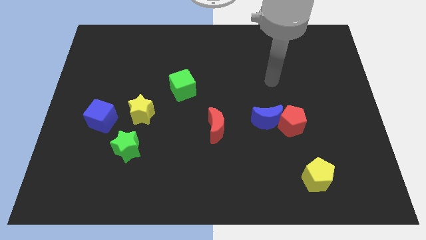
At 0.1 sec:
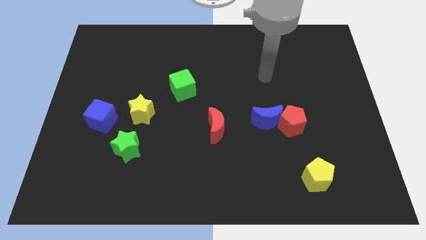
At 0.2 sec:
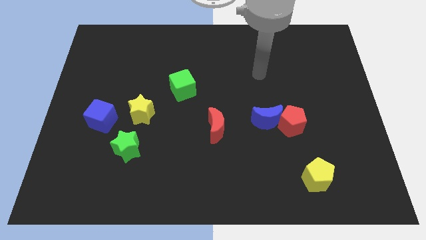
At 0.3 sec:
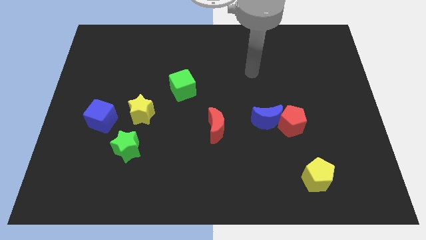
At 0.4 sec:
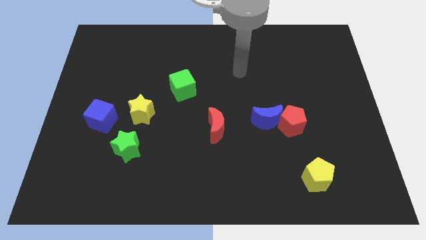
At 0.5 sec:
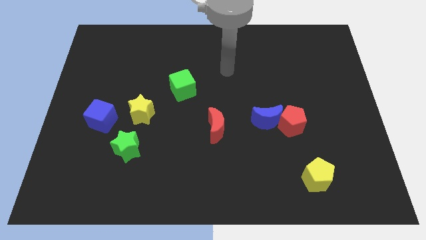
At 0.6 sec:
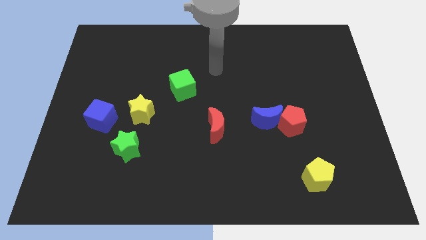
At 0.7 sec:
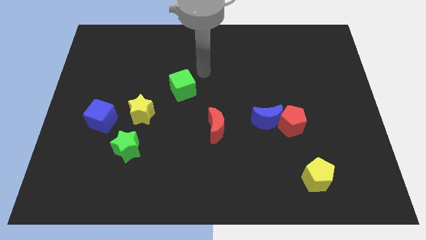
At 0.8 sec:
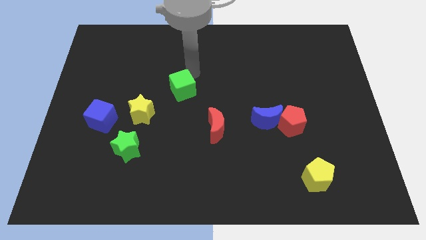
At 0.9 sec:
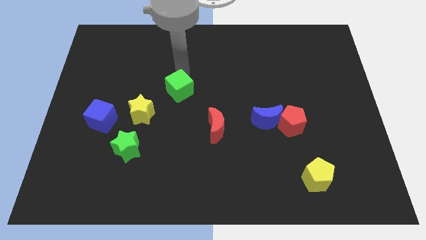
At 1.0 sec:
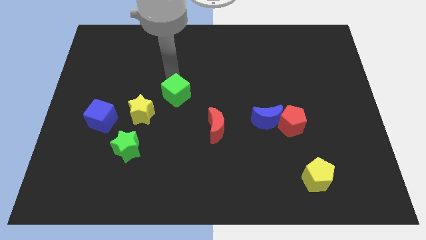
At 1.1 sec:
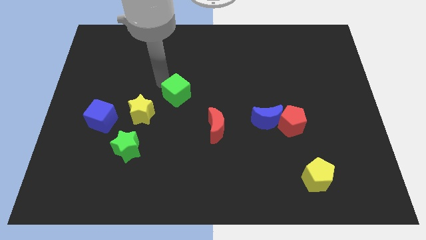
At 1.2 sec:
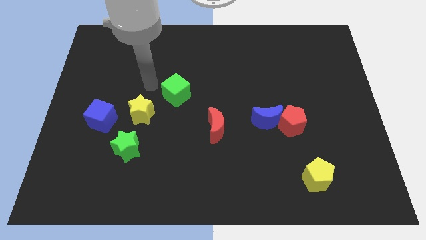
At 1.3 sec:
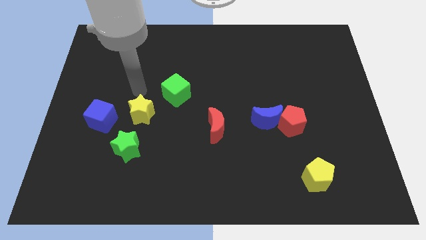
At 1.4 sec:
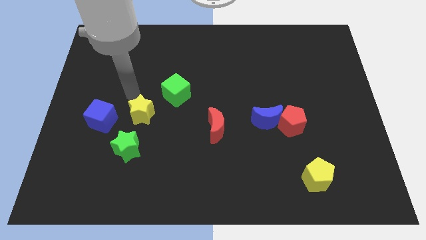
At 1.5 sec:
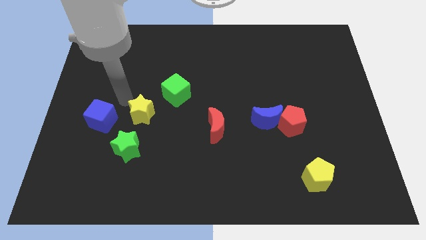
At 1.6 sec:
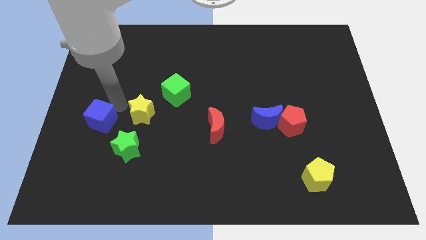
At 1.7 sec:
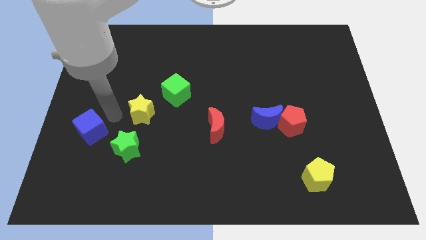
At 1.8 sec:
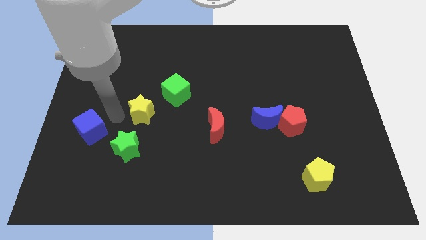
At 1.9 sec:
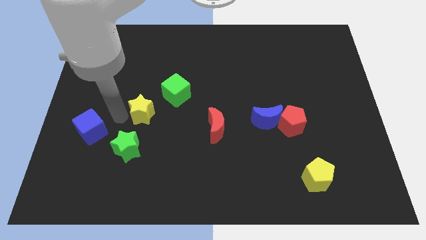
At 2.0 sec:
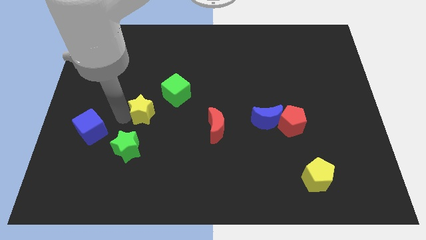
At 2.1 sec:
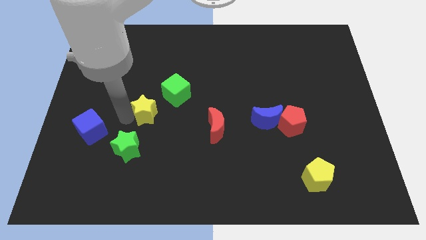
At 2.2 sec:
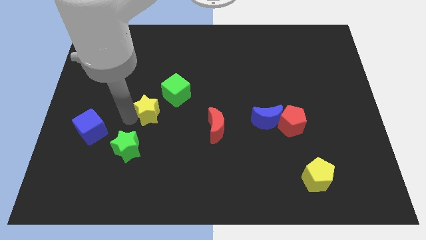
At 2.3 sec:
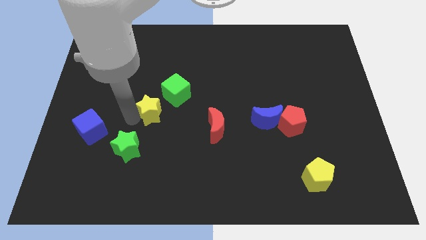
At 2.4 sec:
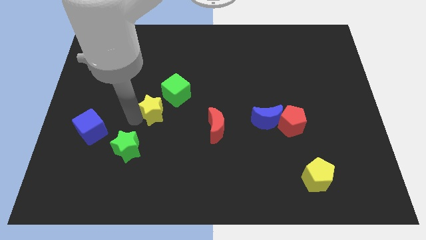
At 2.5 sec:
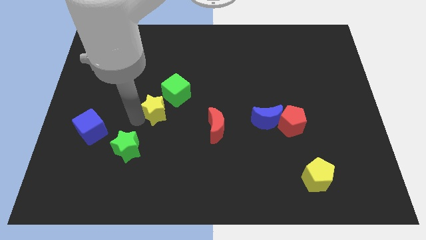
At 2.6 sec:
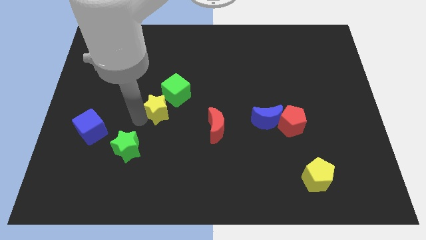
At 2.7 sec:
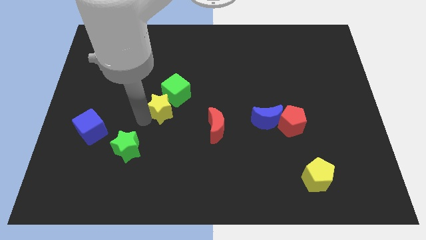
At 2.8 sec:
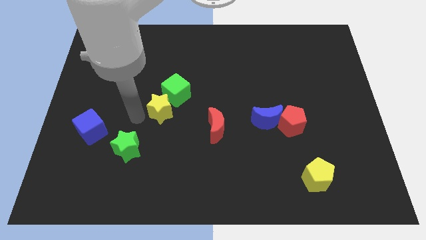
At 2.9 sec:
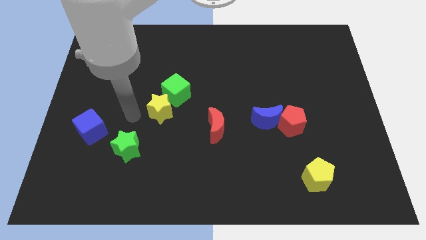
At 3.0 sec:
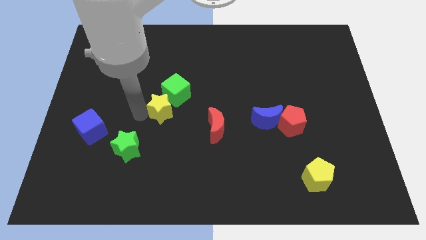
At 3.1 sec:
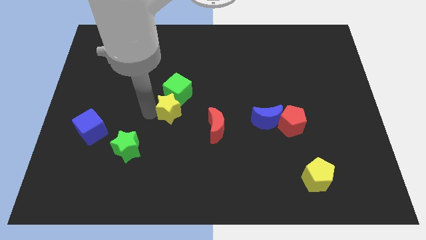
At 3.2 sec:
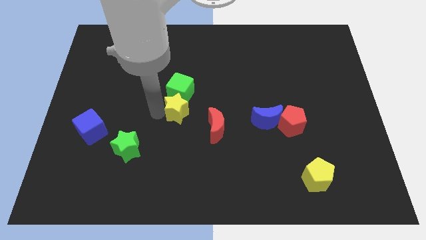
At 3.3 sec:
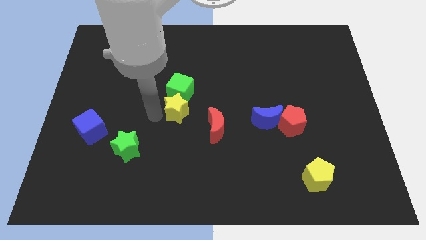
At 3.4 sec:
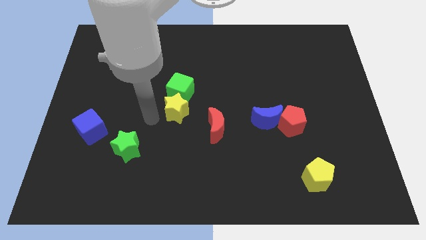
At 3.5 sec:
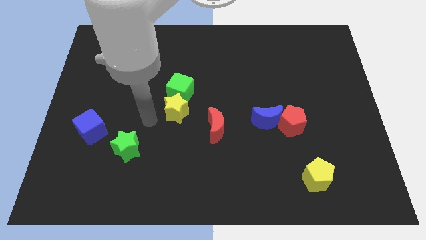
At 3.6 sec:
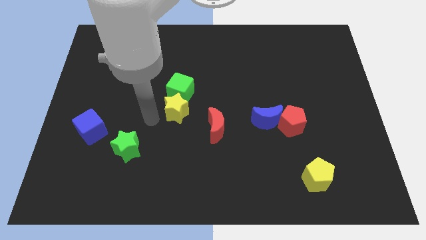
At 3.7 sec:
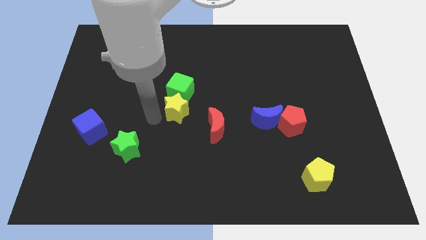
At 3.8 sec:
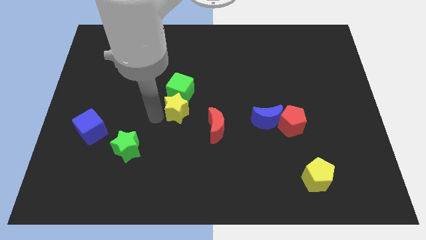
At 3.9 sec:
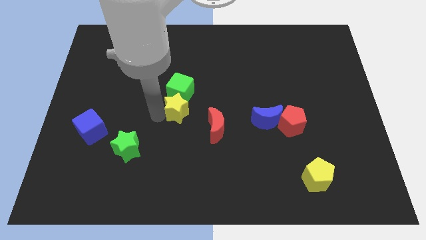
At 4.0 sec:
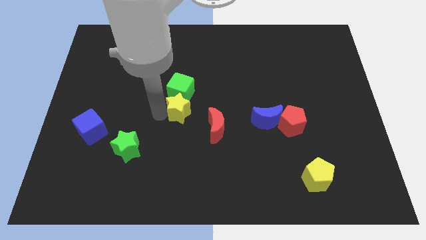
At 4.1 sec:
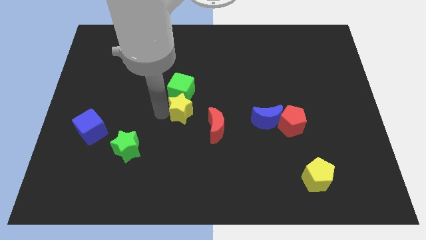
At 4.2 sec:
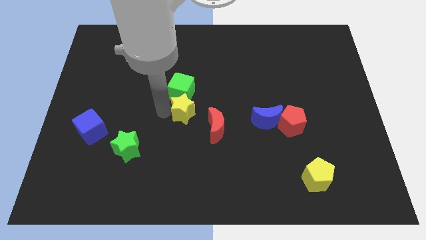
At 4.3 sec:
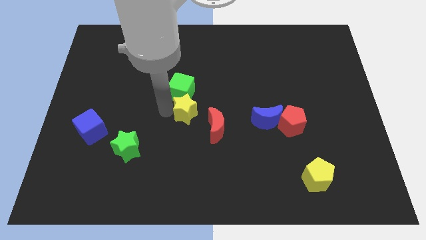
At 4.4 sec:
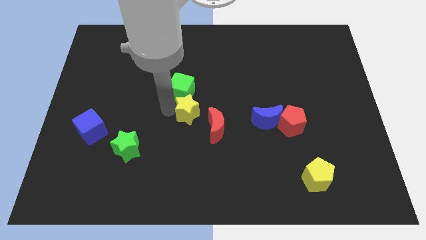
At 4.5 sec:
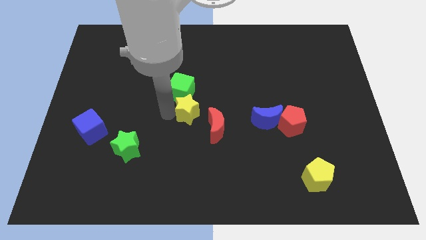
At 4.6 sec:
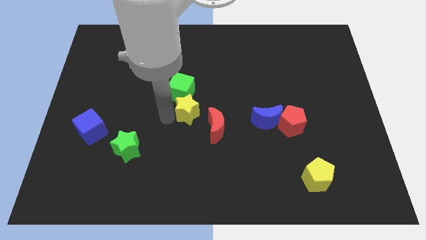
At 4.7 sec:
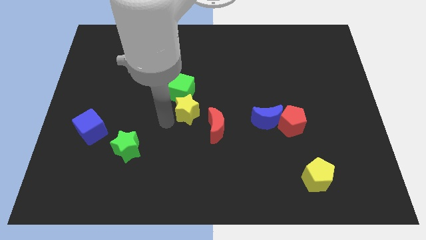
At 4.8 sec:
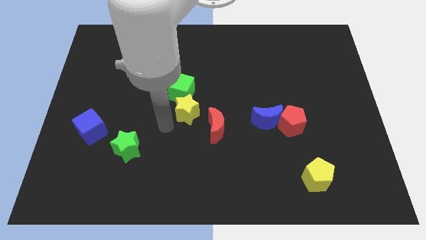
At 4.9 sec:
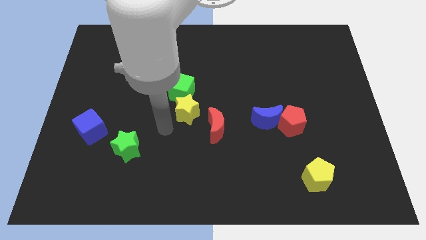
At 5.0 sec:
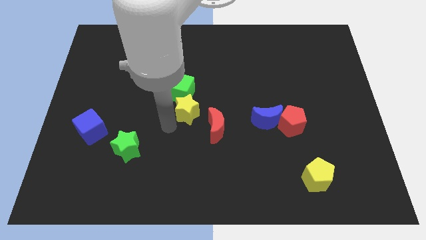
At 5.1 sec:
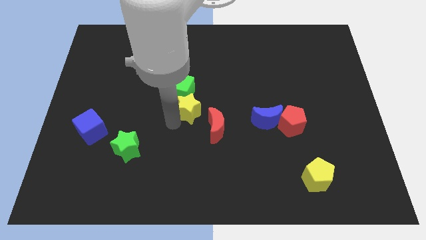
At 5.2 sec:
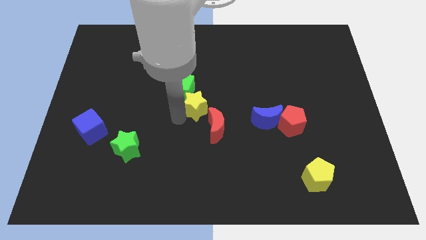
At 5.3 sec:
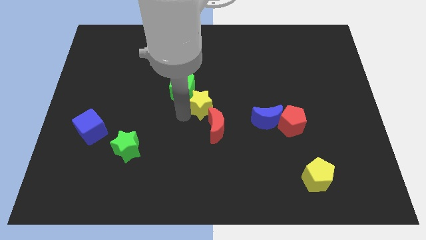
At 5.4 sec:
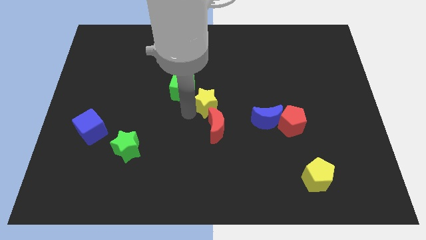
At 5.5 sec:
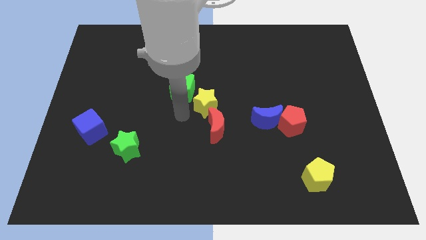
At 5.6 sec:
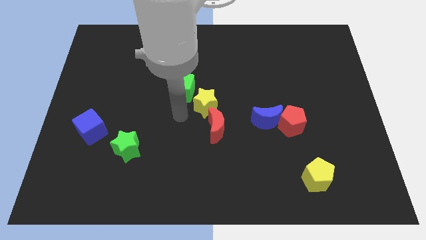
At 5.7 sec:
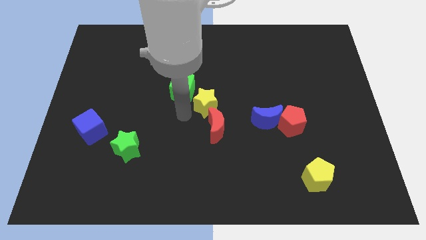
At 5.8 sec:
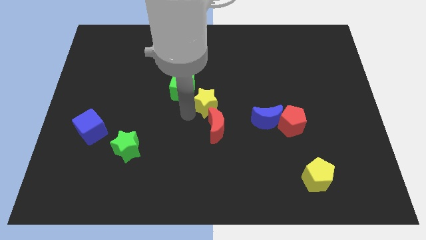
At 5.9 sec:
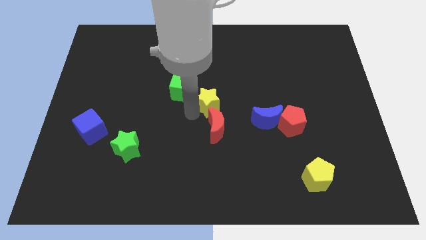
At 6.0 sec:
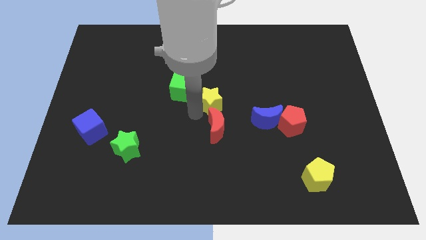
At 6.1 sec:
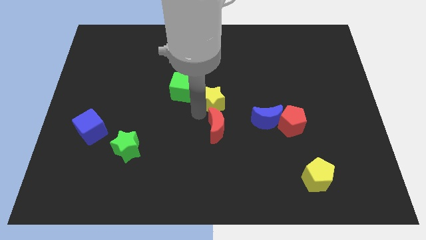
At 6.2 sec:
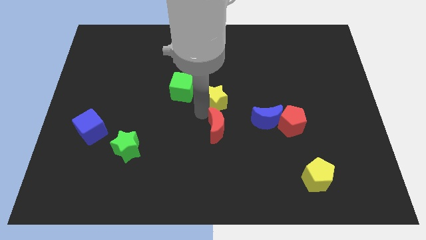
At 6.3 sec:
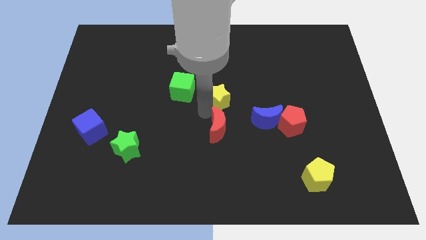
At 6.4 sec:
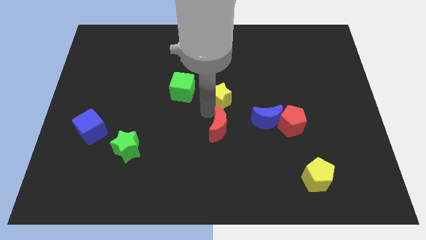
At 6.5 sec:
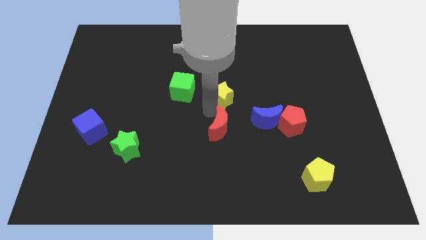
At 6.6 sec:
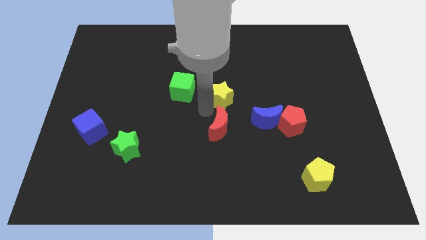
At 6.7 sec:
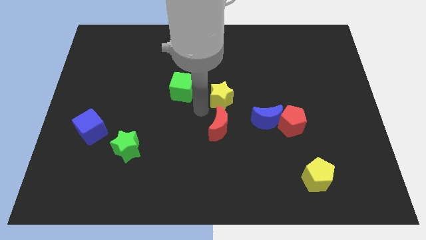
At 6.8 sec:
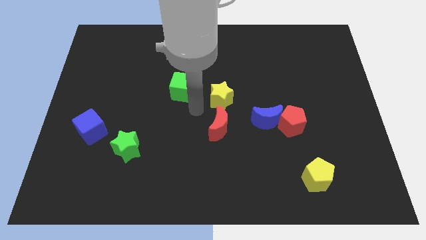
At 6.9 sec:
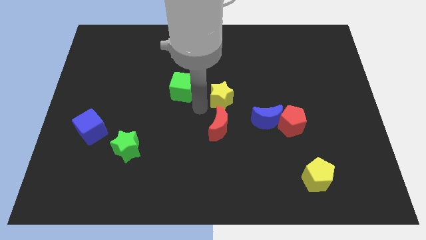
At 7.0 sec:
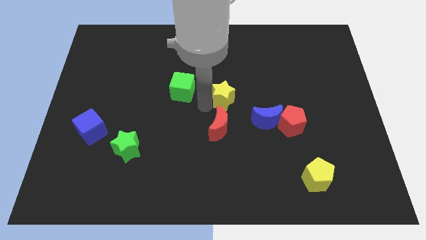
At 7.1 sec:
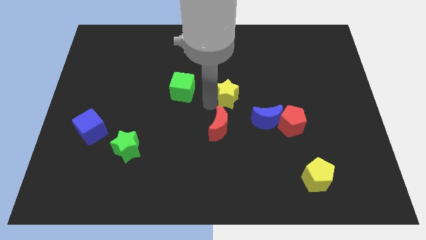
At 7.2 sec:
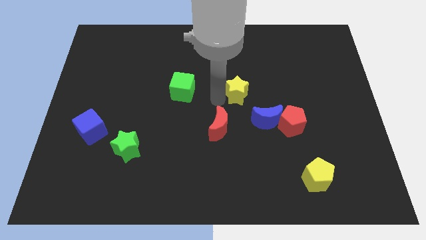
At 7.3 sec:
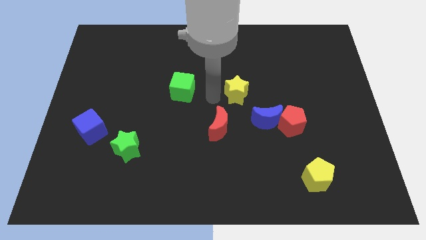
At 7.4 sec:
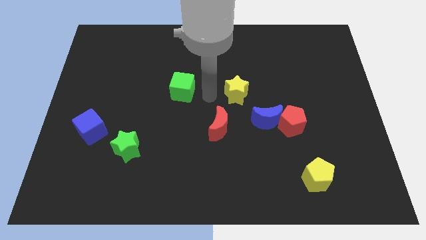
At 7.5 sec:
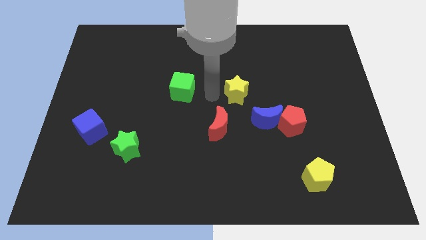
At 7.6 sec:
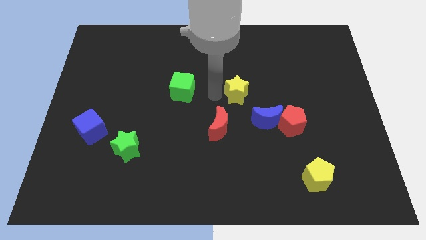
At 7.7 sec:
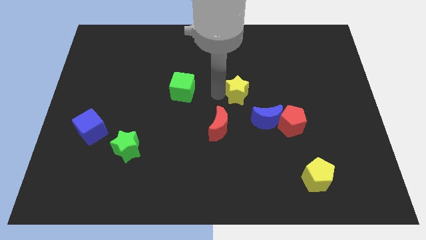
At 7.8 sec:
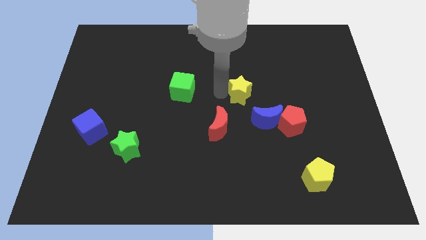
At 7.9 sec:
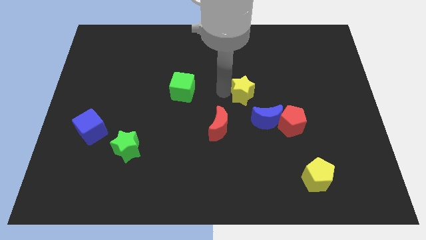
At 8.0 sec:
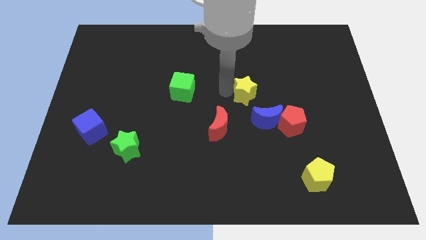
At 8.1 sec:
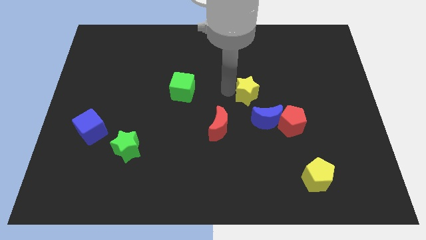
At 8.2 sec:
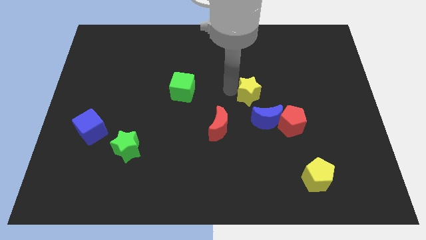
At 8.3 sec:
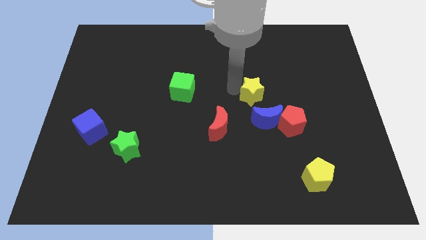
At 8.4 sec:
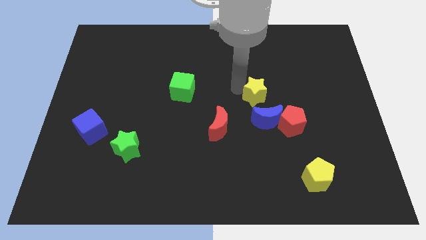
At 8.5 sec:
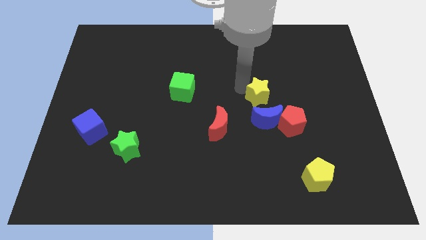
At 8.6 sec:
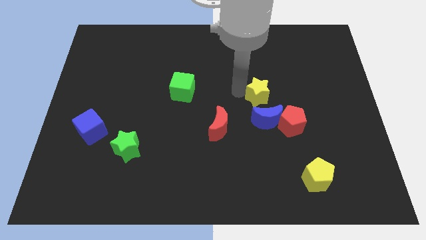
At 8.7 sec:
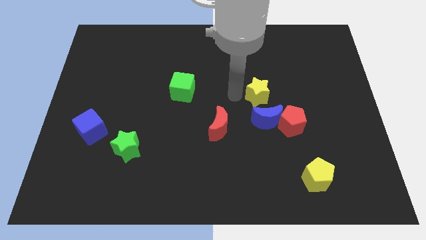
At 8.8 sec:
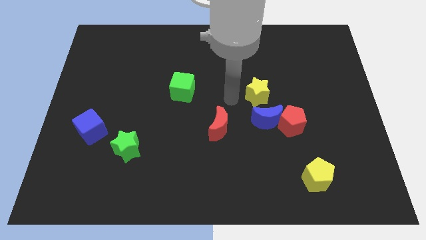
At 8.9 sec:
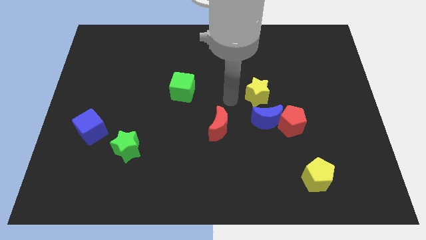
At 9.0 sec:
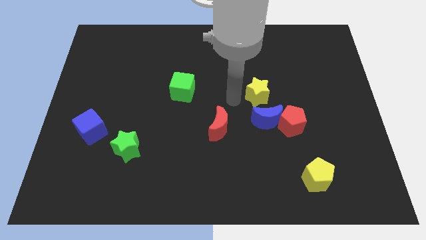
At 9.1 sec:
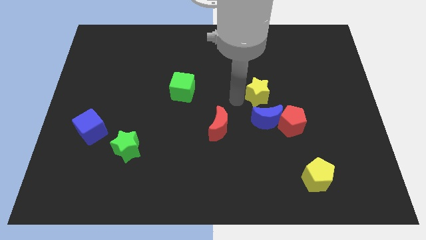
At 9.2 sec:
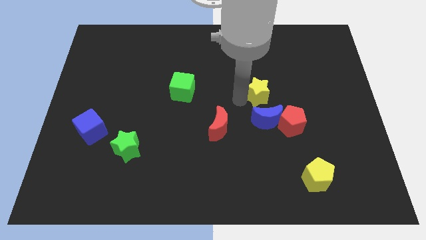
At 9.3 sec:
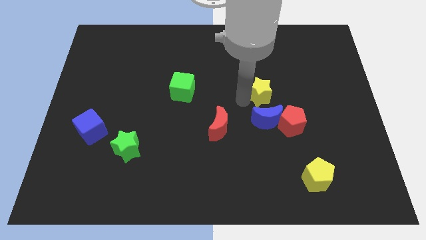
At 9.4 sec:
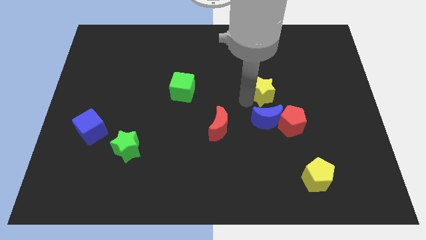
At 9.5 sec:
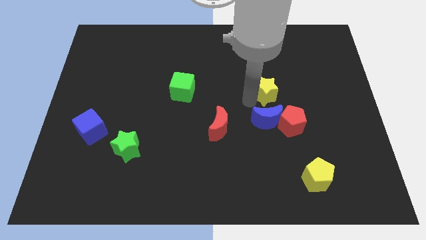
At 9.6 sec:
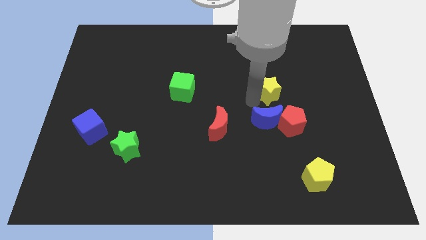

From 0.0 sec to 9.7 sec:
move the yellow star above the red pentagon
